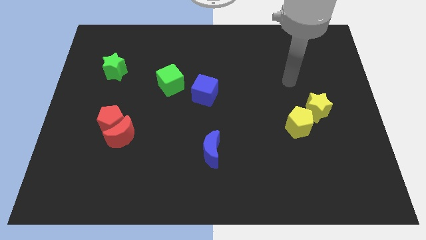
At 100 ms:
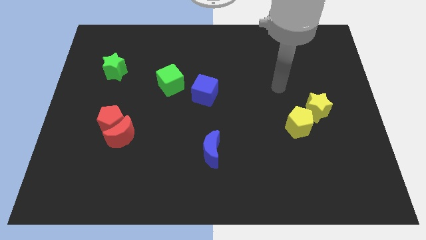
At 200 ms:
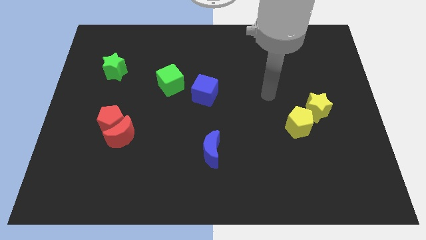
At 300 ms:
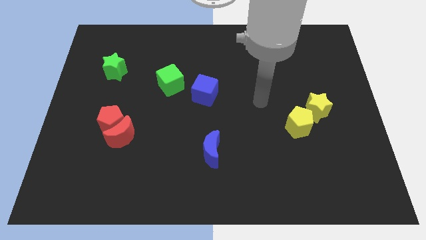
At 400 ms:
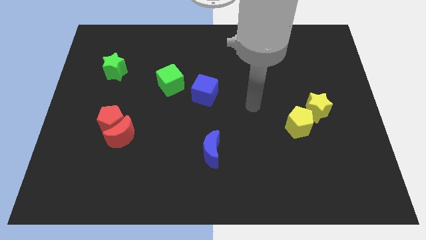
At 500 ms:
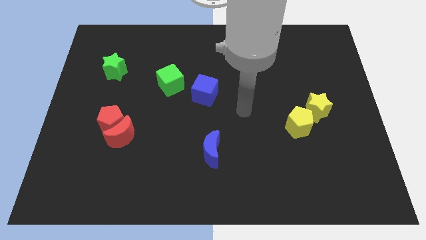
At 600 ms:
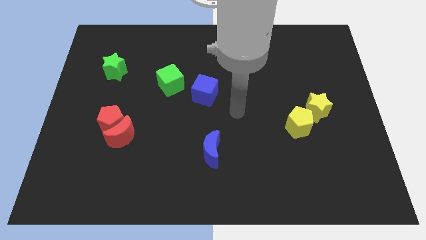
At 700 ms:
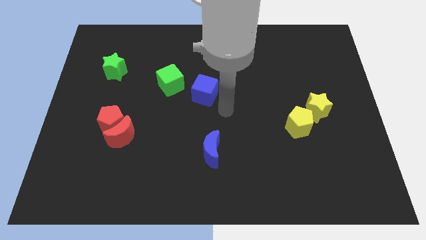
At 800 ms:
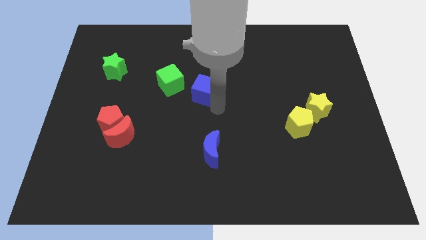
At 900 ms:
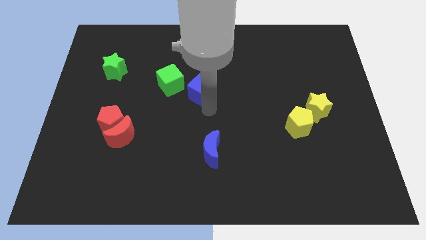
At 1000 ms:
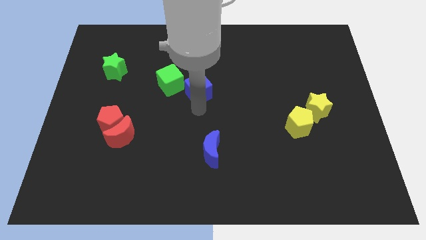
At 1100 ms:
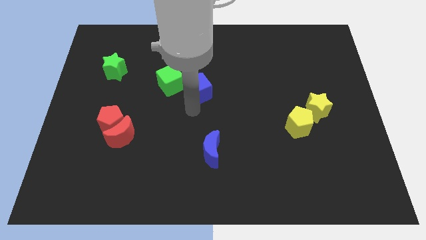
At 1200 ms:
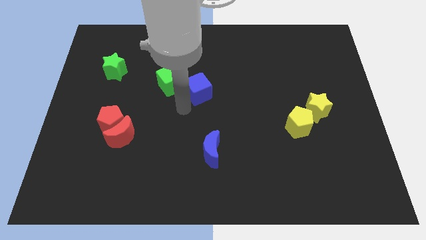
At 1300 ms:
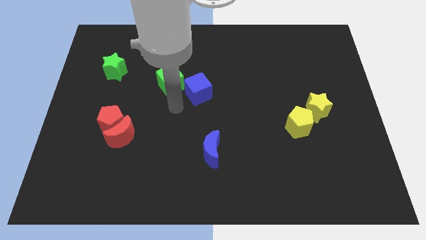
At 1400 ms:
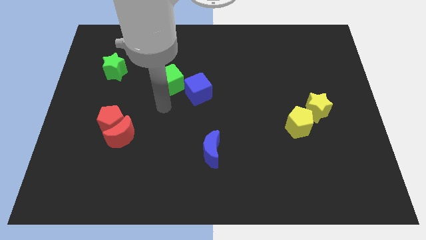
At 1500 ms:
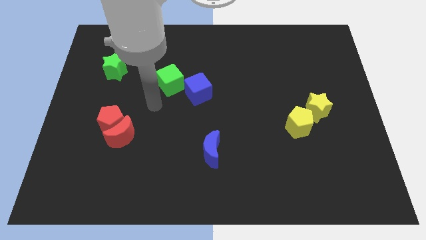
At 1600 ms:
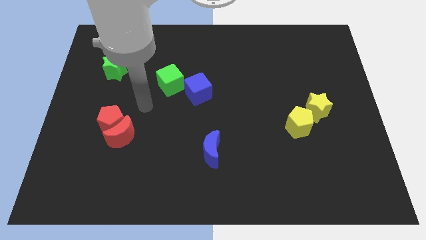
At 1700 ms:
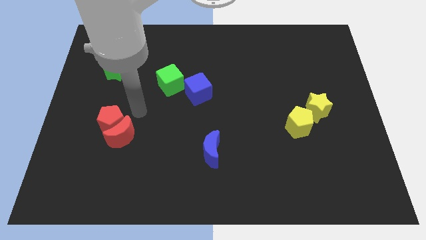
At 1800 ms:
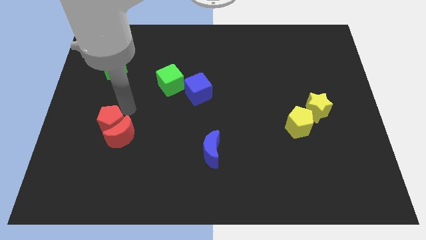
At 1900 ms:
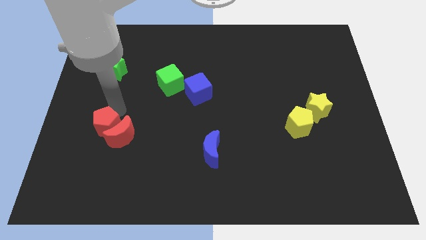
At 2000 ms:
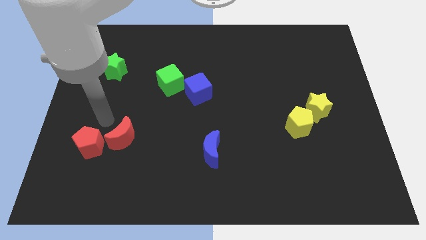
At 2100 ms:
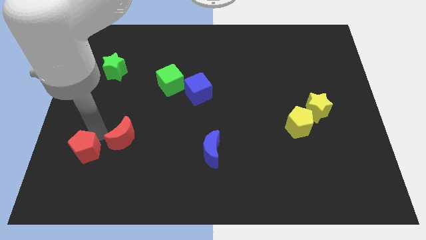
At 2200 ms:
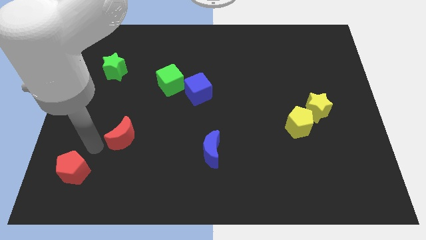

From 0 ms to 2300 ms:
separate the red moon from the red pentagon

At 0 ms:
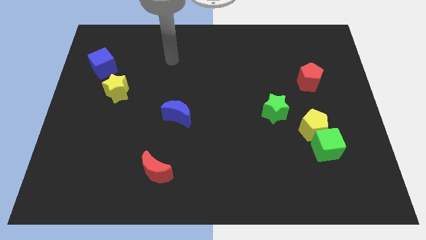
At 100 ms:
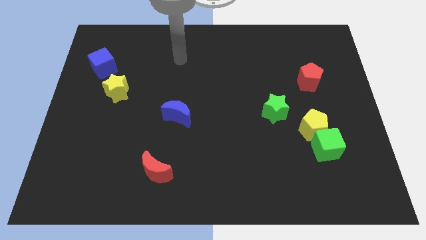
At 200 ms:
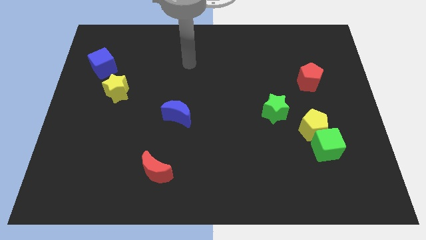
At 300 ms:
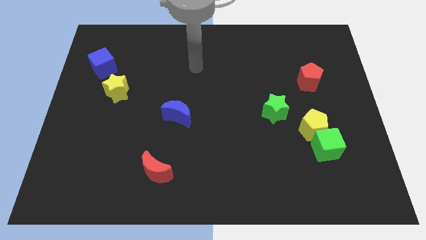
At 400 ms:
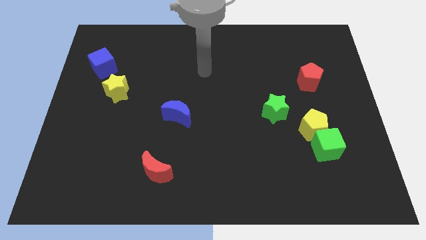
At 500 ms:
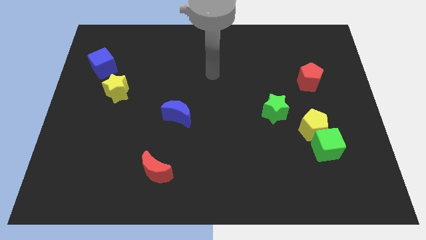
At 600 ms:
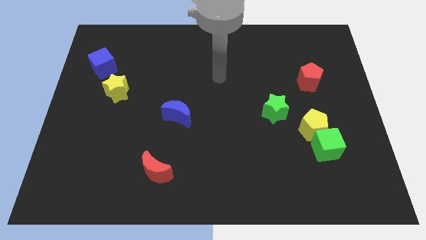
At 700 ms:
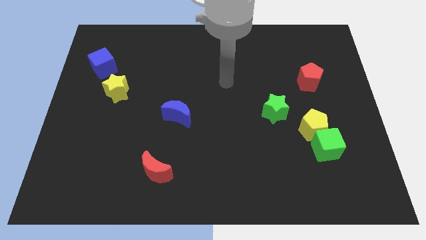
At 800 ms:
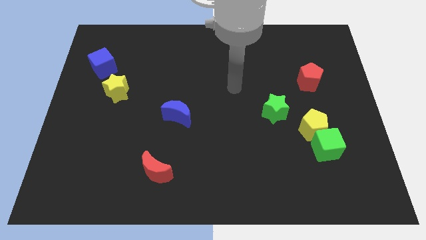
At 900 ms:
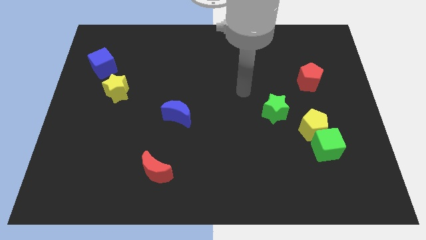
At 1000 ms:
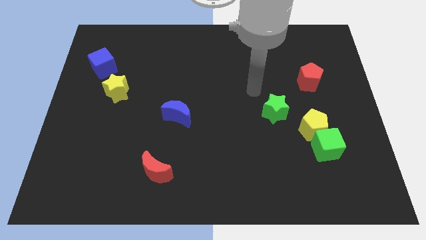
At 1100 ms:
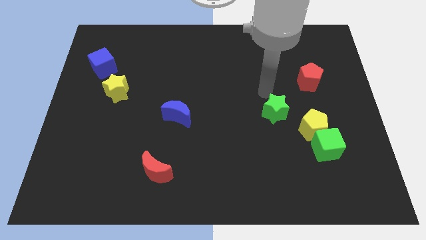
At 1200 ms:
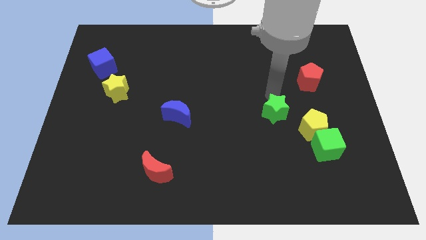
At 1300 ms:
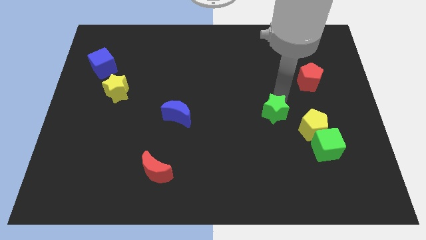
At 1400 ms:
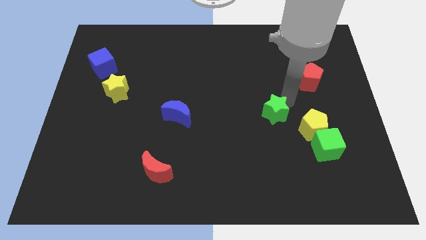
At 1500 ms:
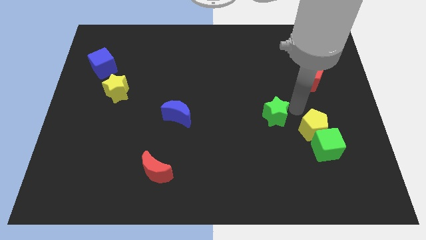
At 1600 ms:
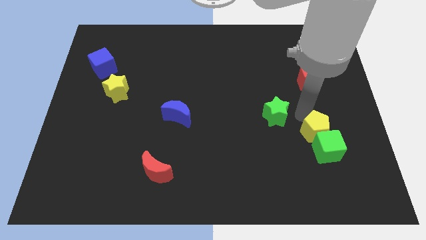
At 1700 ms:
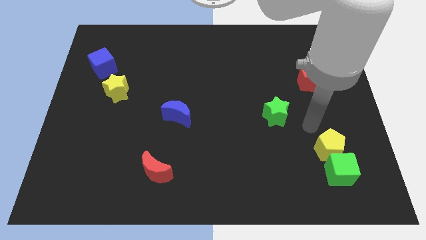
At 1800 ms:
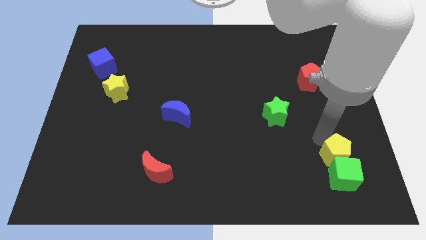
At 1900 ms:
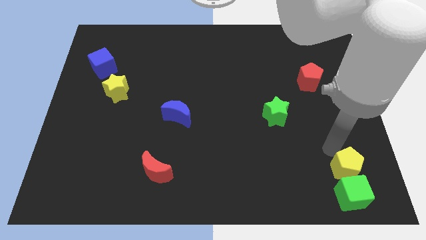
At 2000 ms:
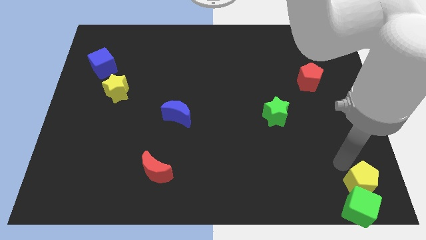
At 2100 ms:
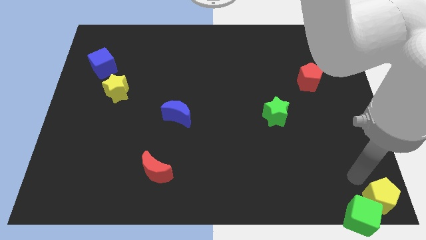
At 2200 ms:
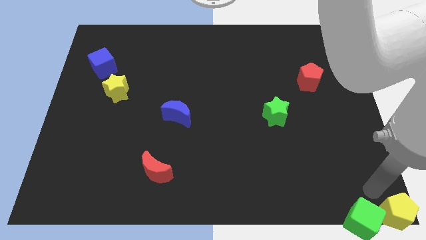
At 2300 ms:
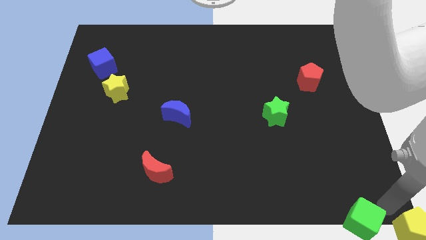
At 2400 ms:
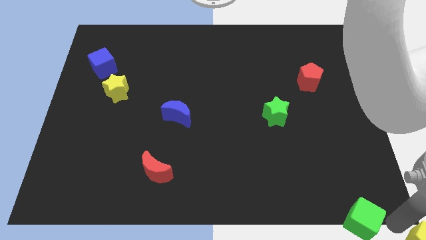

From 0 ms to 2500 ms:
move the green cube away from the yellow pentagon

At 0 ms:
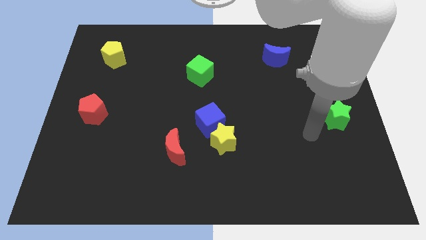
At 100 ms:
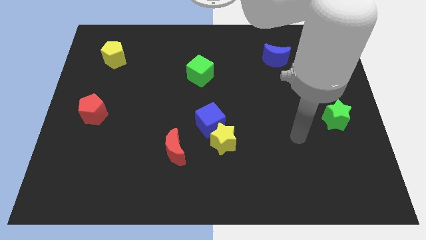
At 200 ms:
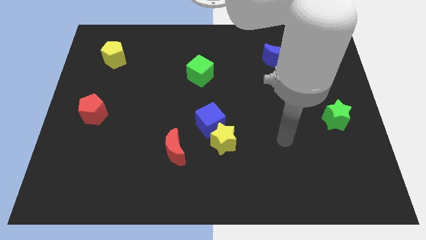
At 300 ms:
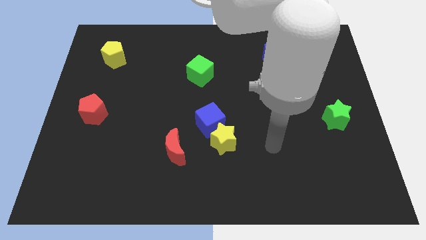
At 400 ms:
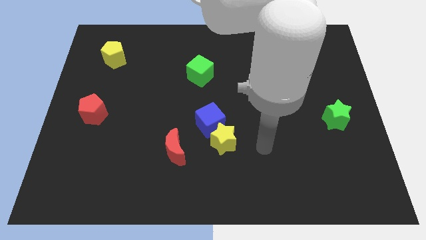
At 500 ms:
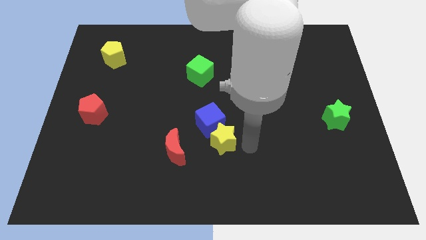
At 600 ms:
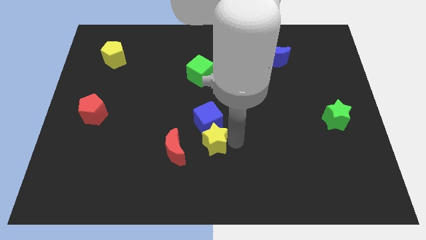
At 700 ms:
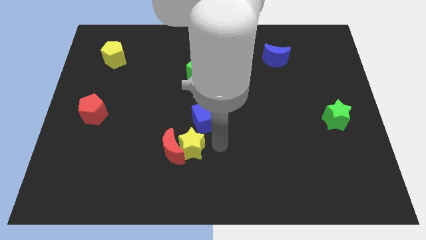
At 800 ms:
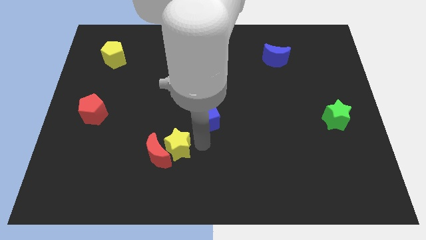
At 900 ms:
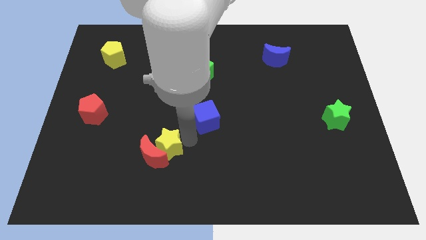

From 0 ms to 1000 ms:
move the blue cube away from the yellow star

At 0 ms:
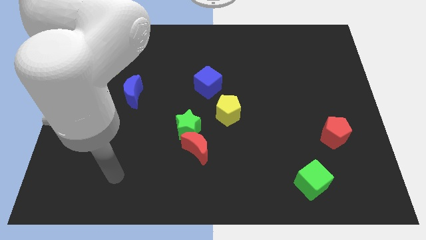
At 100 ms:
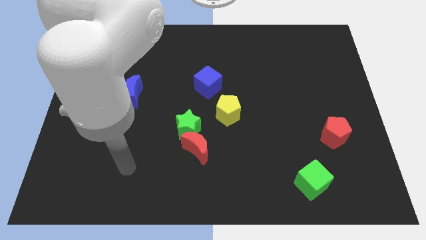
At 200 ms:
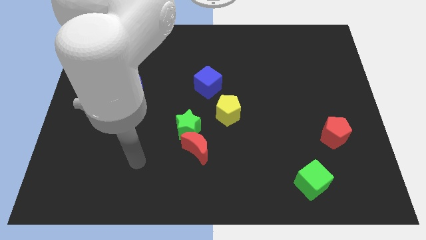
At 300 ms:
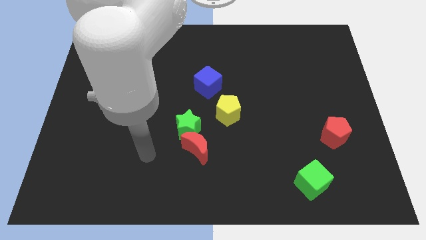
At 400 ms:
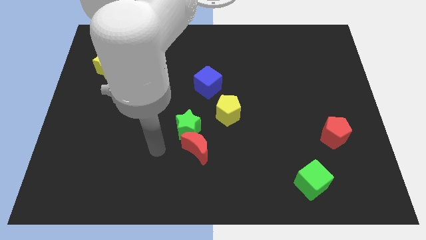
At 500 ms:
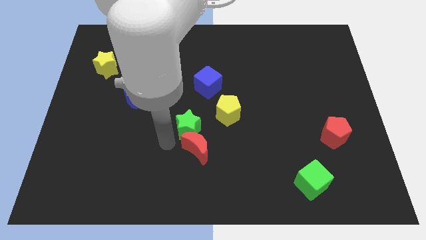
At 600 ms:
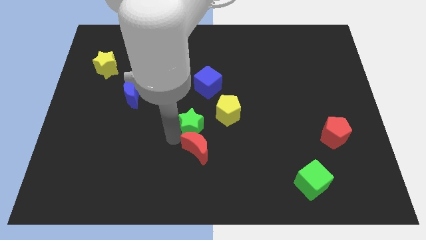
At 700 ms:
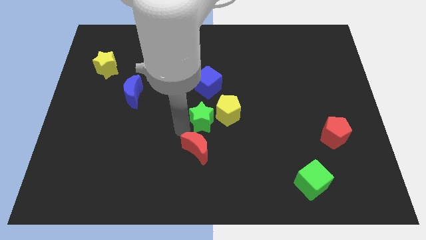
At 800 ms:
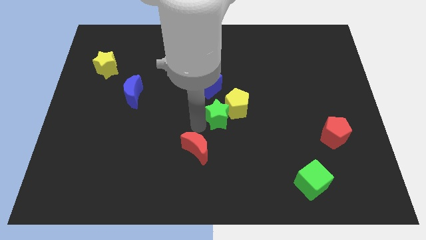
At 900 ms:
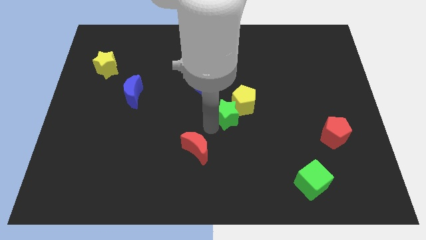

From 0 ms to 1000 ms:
separate the red moon from the green star

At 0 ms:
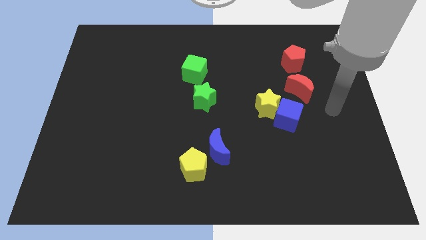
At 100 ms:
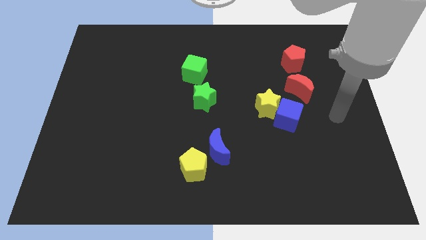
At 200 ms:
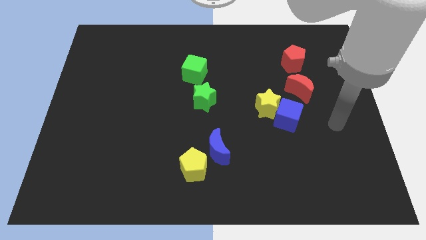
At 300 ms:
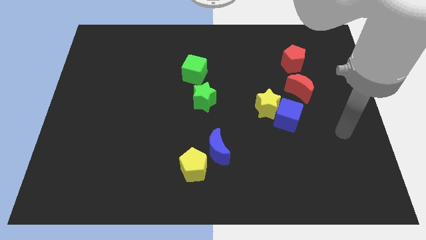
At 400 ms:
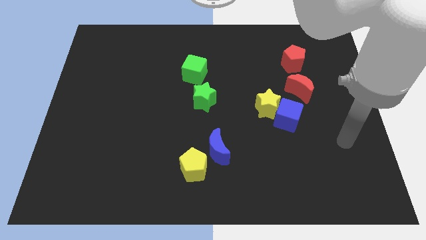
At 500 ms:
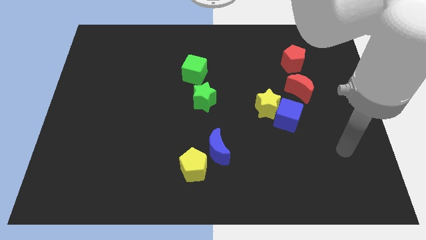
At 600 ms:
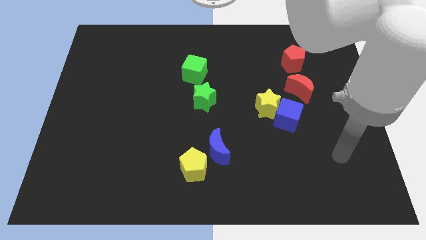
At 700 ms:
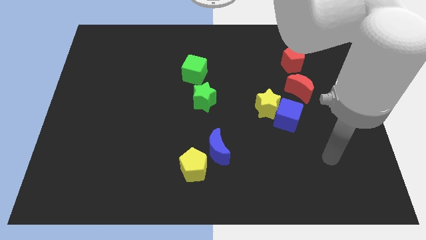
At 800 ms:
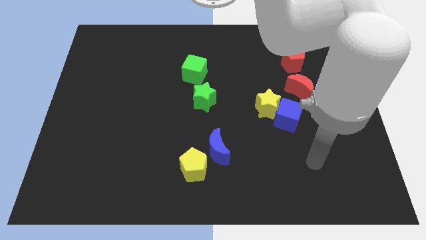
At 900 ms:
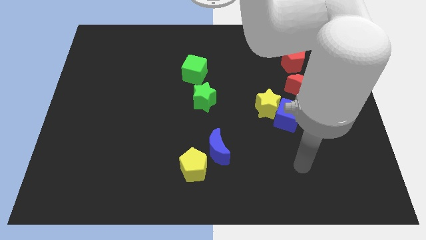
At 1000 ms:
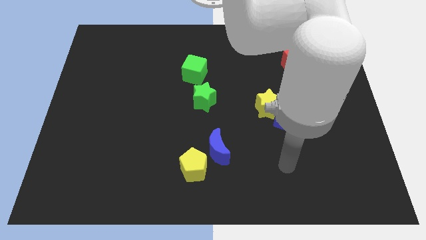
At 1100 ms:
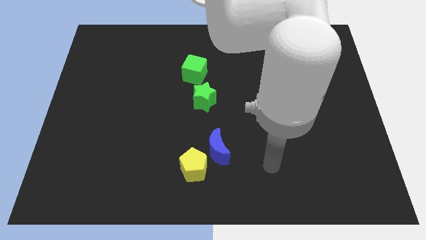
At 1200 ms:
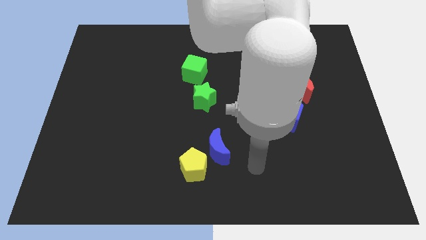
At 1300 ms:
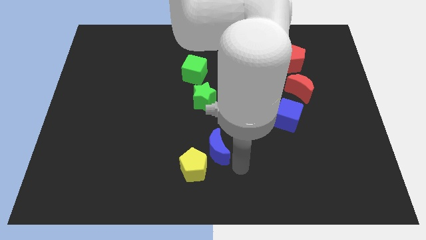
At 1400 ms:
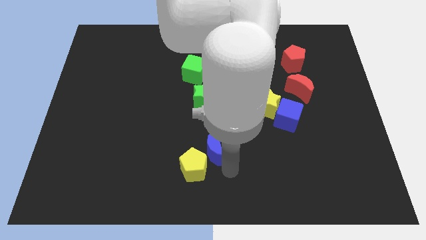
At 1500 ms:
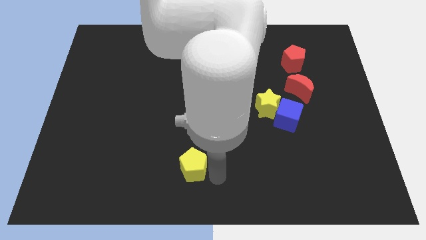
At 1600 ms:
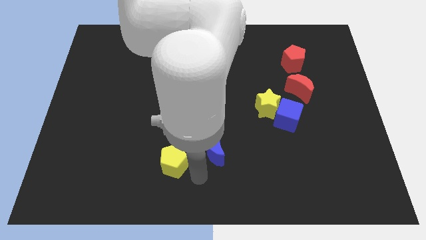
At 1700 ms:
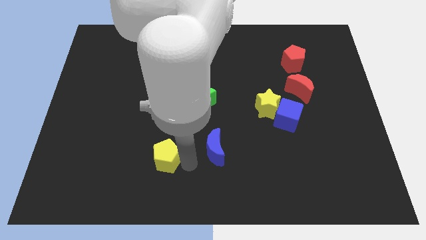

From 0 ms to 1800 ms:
move the blue moon away from the yellow pentagon

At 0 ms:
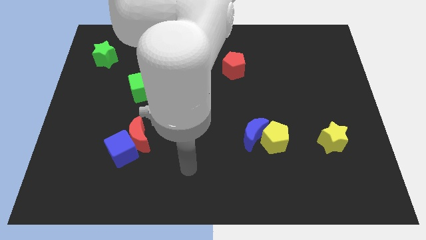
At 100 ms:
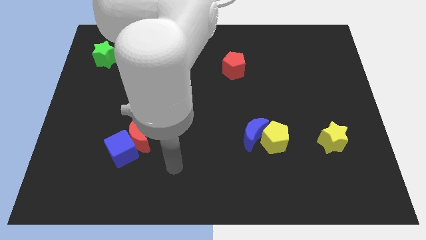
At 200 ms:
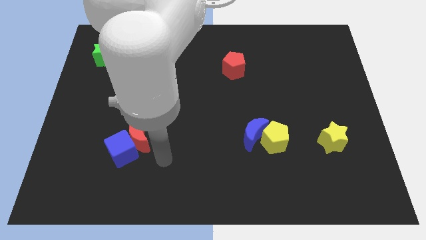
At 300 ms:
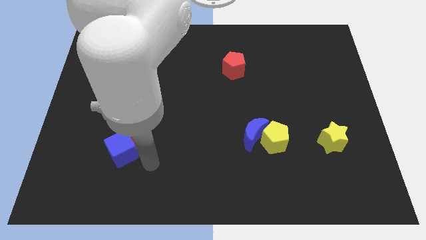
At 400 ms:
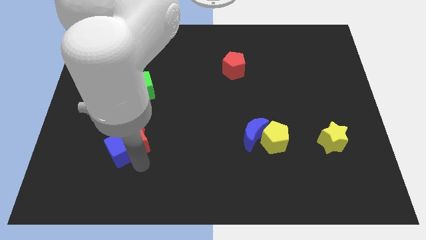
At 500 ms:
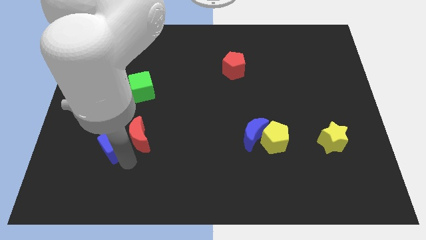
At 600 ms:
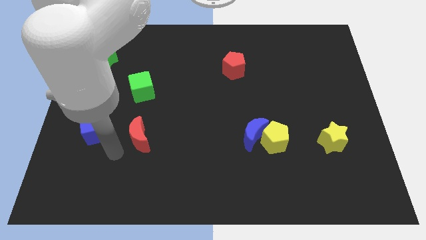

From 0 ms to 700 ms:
move the red moon away from the blue cube

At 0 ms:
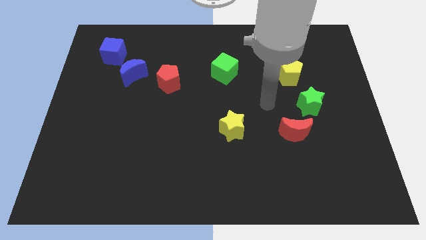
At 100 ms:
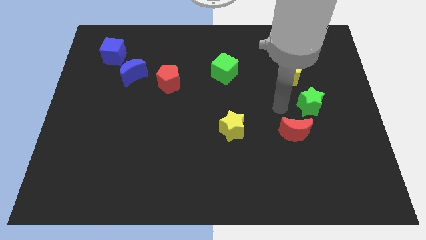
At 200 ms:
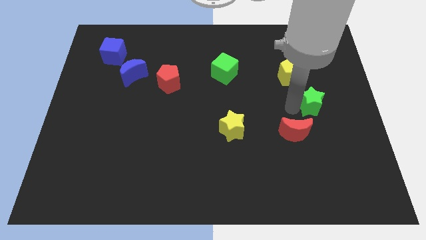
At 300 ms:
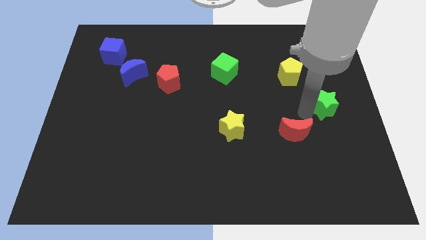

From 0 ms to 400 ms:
pull the red moon apart from the green star
